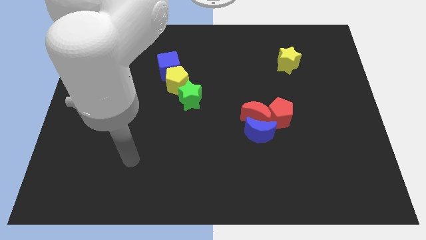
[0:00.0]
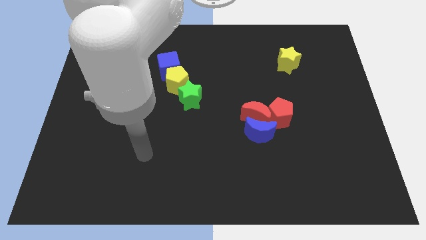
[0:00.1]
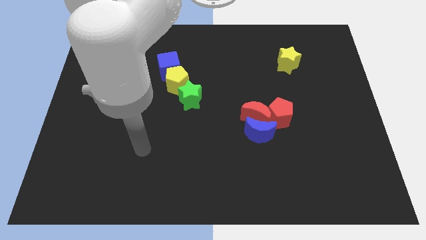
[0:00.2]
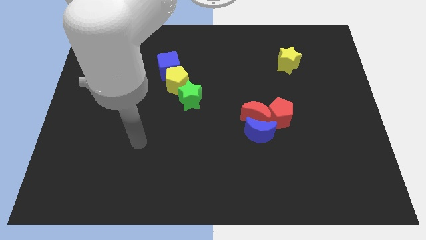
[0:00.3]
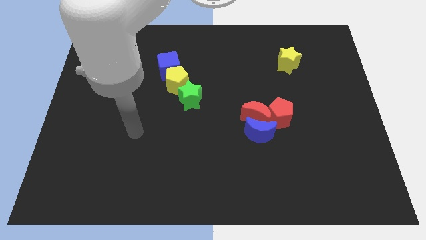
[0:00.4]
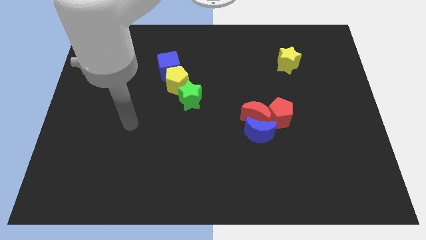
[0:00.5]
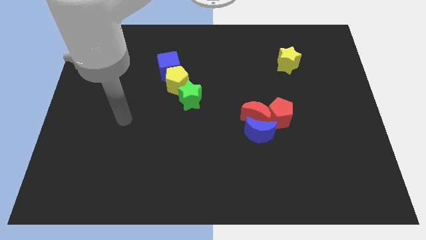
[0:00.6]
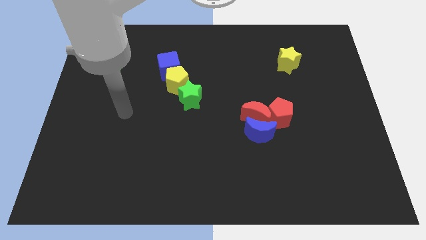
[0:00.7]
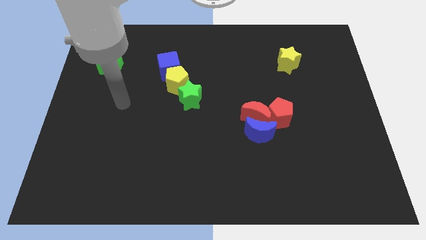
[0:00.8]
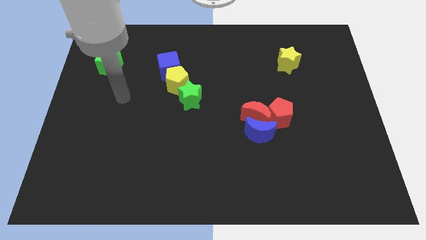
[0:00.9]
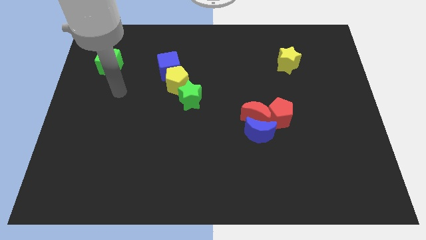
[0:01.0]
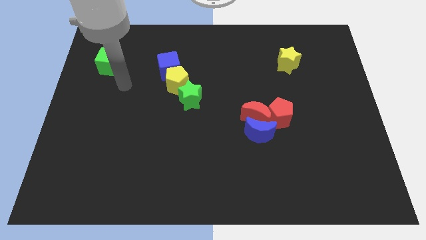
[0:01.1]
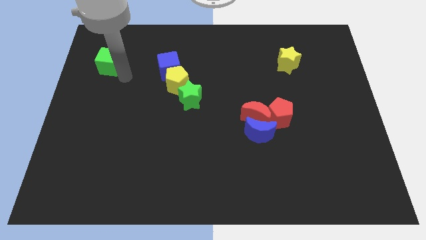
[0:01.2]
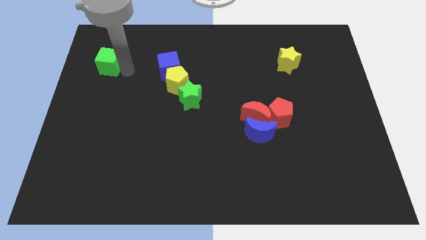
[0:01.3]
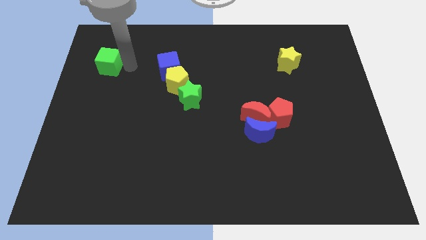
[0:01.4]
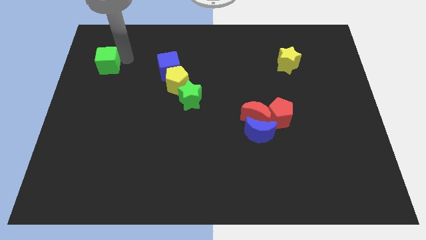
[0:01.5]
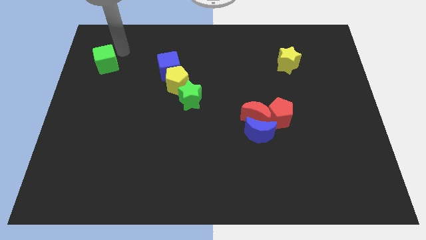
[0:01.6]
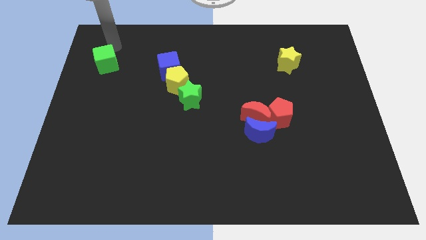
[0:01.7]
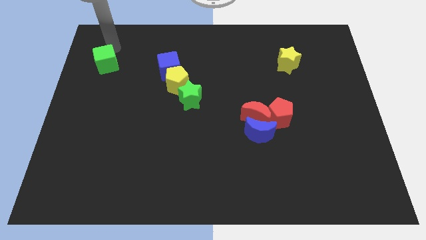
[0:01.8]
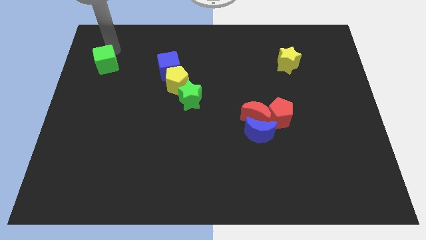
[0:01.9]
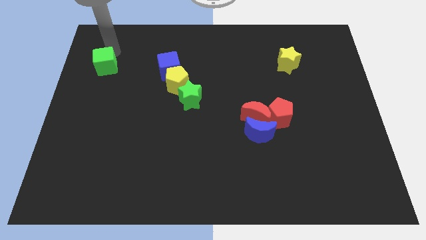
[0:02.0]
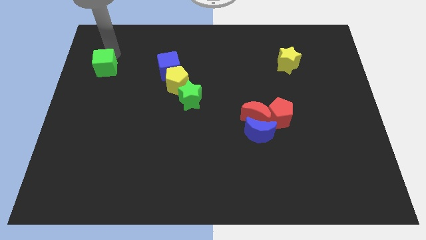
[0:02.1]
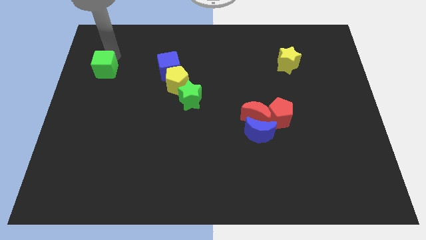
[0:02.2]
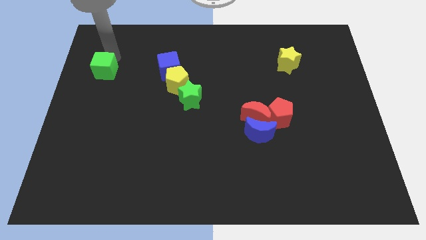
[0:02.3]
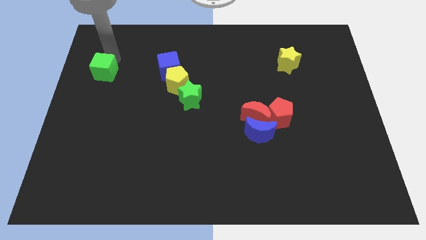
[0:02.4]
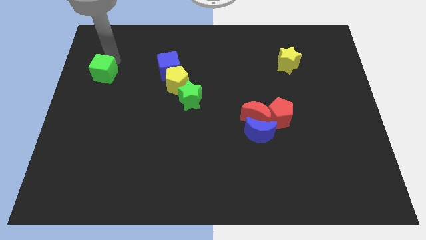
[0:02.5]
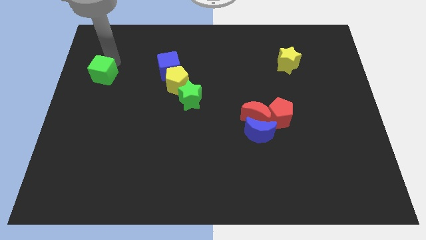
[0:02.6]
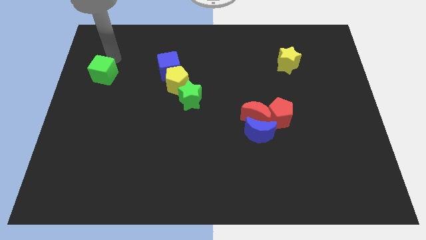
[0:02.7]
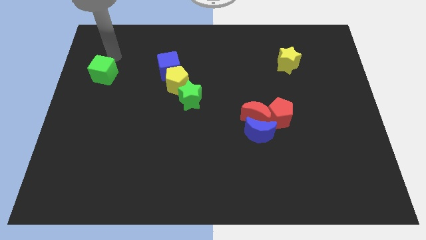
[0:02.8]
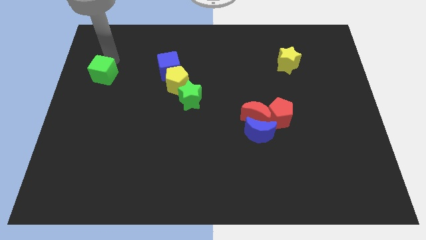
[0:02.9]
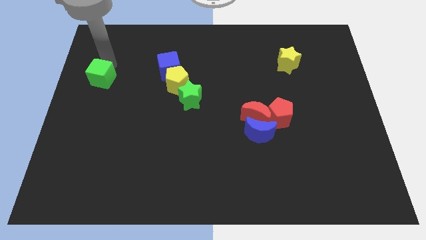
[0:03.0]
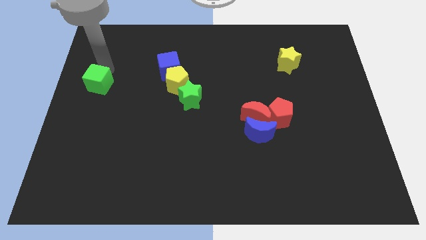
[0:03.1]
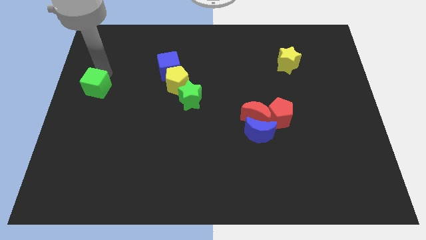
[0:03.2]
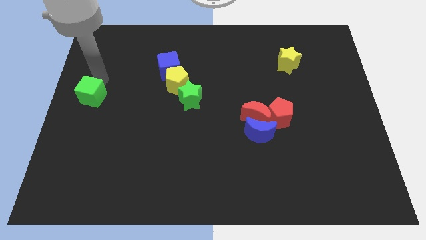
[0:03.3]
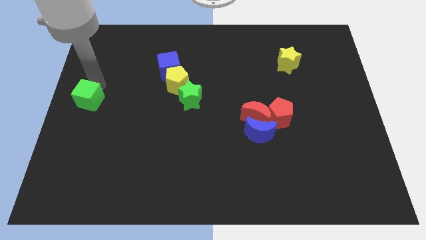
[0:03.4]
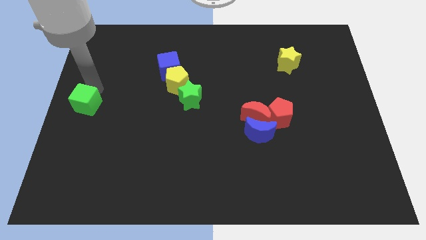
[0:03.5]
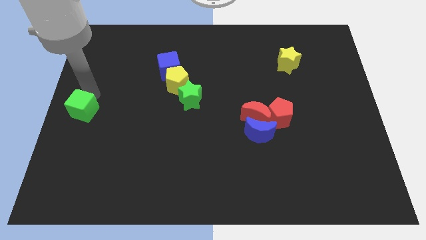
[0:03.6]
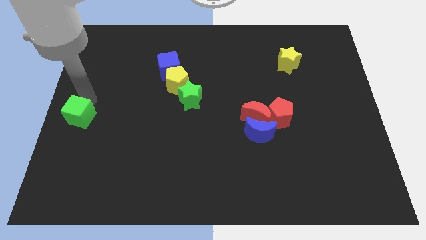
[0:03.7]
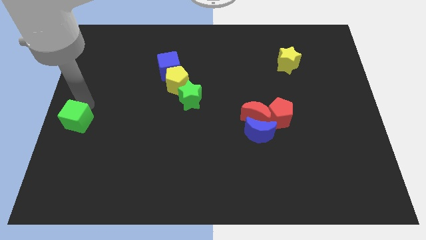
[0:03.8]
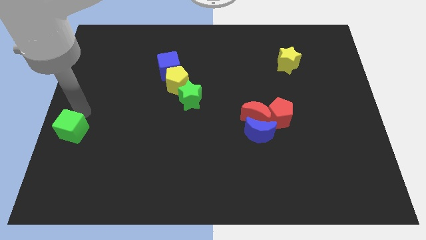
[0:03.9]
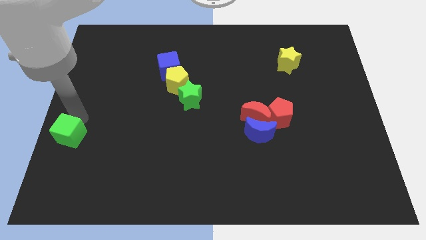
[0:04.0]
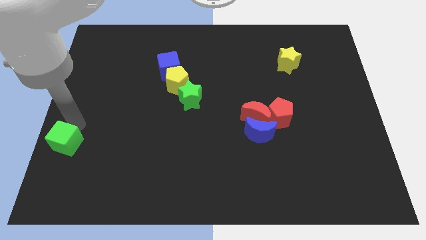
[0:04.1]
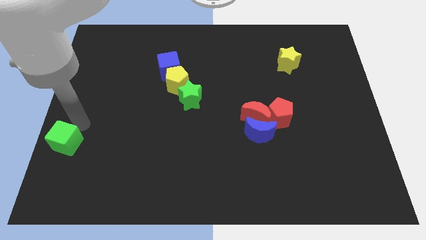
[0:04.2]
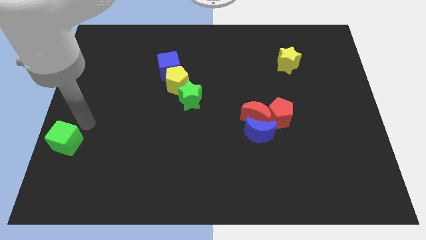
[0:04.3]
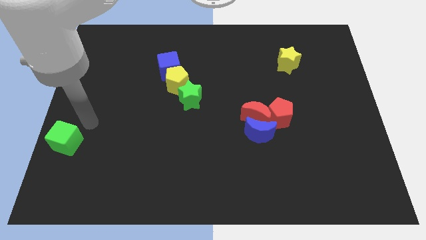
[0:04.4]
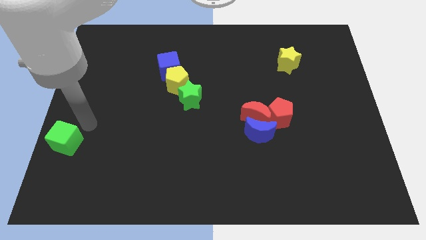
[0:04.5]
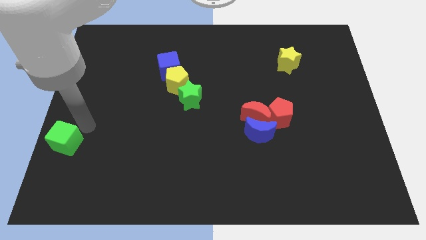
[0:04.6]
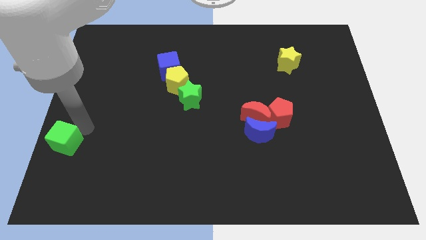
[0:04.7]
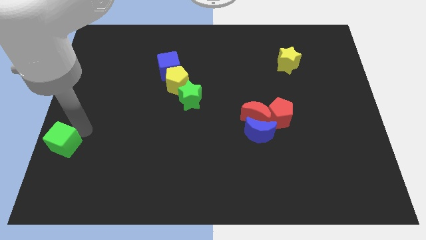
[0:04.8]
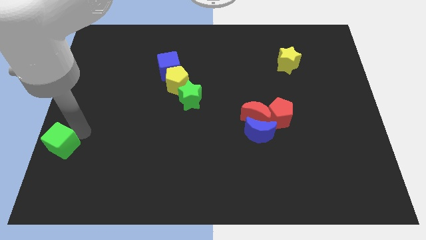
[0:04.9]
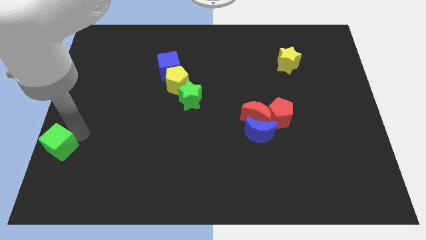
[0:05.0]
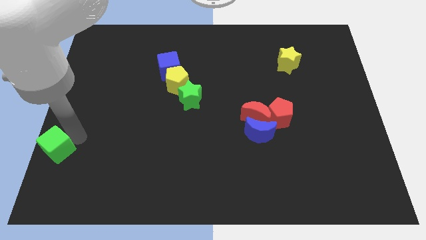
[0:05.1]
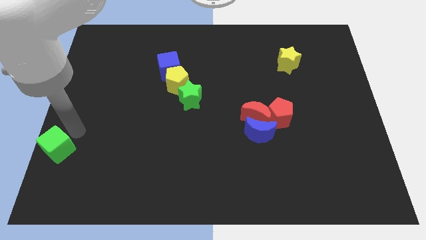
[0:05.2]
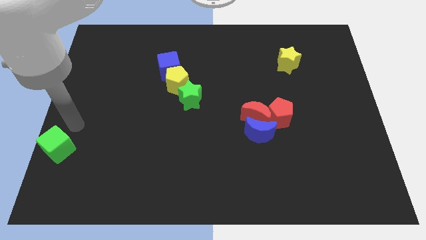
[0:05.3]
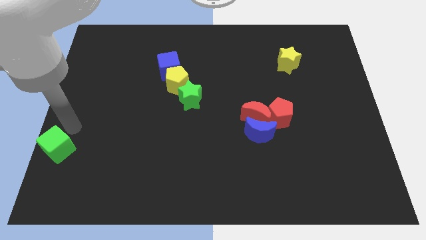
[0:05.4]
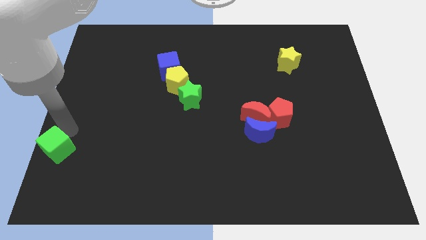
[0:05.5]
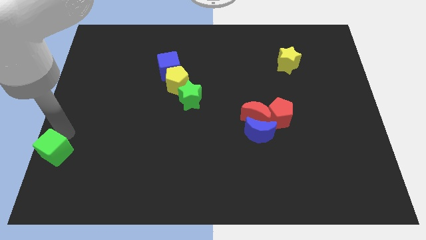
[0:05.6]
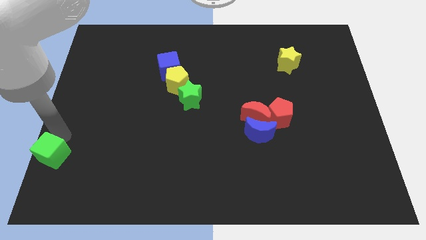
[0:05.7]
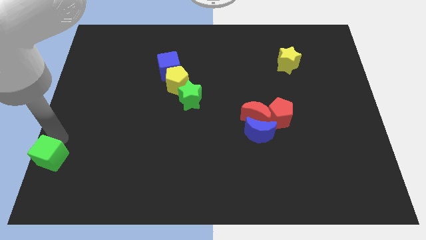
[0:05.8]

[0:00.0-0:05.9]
put the green cube to the lower left corner

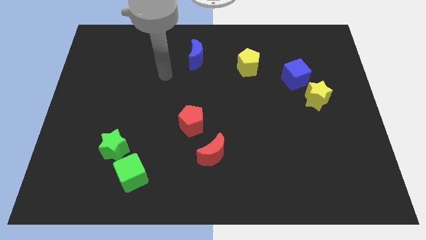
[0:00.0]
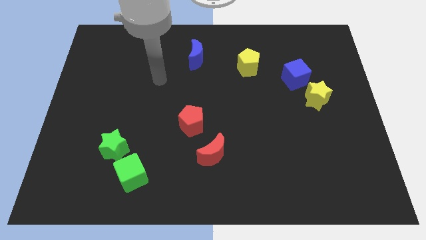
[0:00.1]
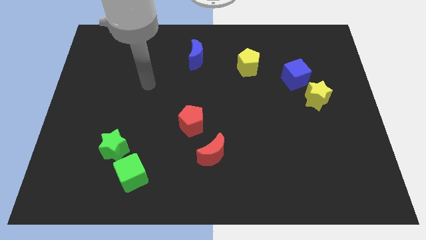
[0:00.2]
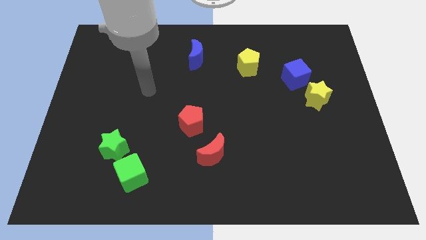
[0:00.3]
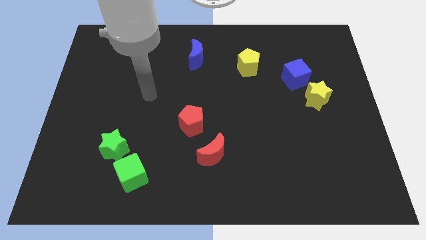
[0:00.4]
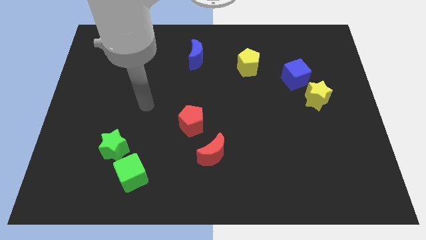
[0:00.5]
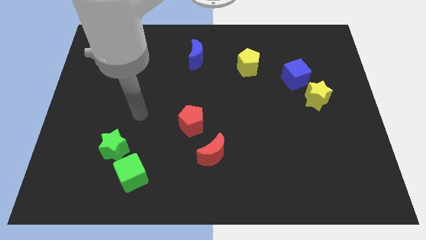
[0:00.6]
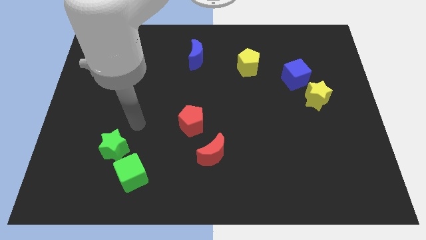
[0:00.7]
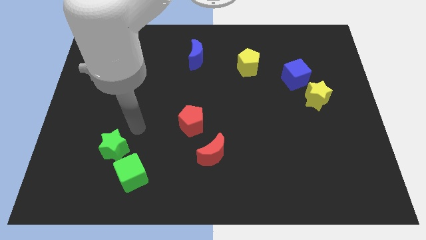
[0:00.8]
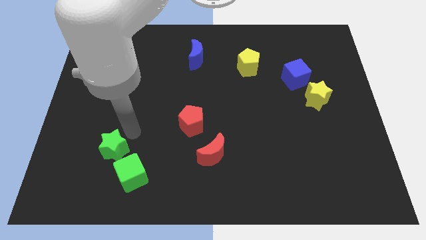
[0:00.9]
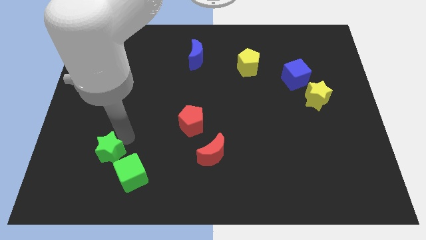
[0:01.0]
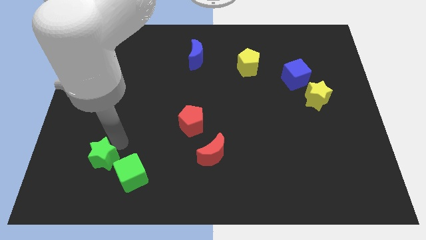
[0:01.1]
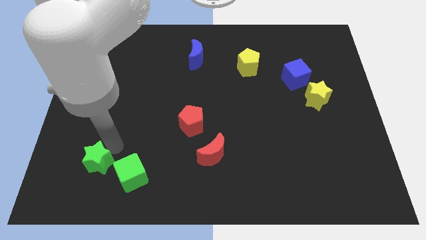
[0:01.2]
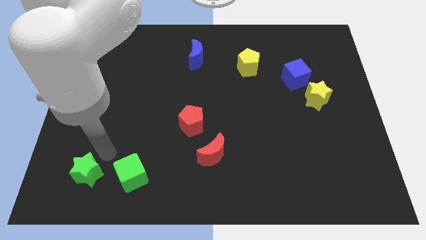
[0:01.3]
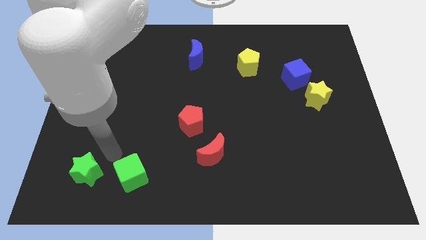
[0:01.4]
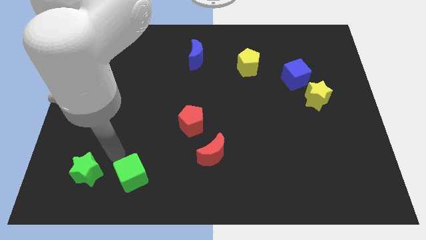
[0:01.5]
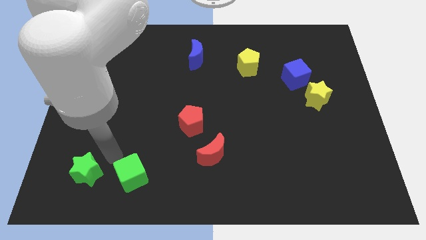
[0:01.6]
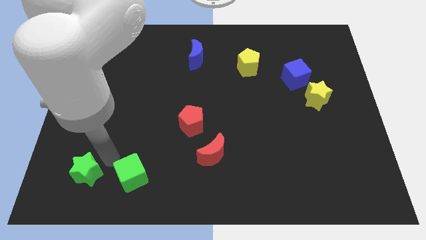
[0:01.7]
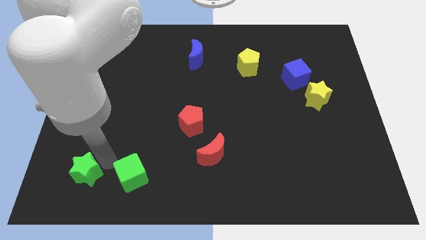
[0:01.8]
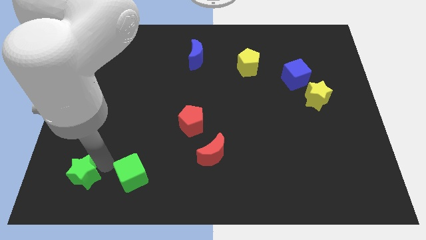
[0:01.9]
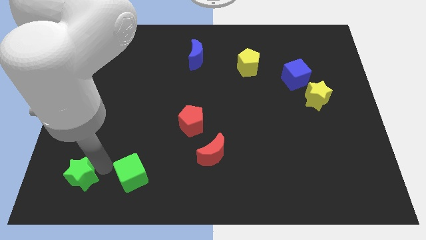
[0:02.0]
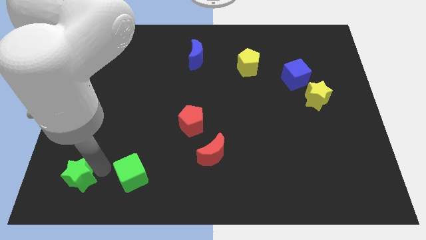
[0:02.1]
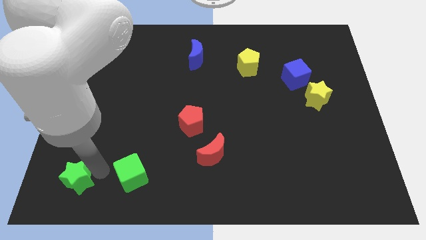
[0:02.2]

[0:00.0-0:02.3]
slide the green star to the bottom left
